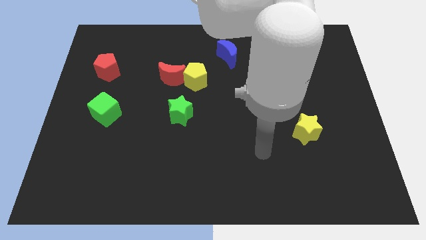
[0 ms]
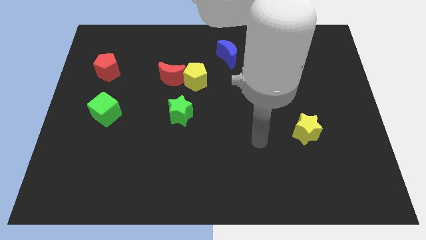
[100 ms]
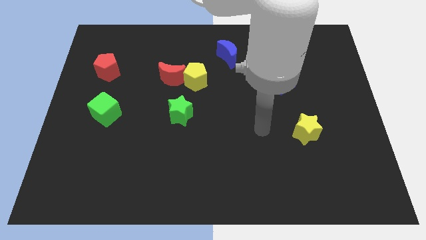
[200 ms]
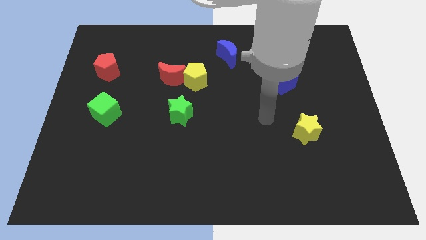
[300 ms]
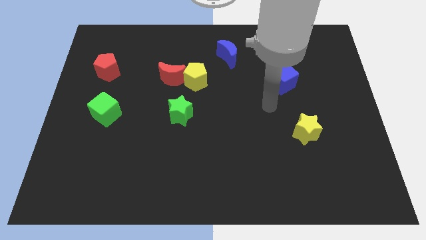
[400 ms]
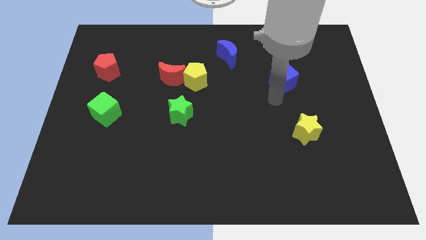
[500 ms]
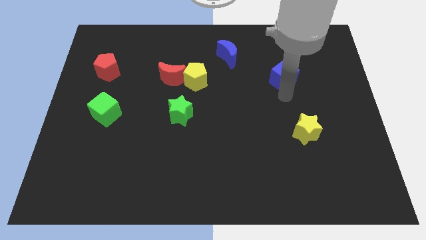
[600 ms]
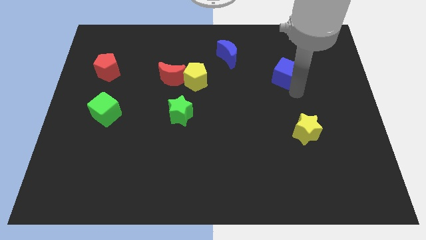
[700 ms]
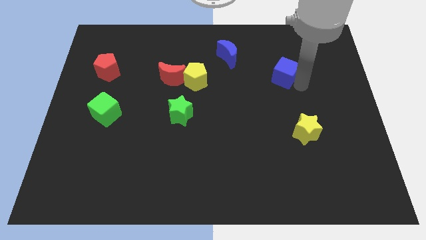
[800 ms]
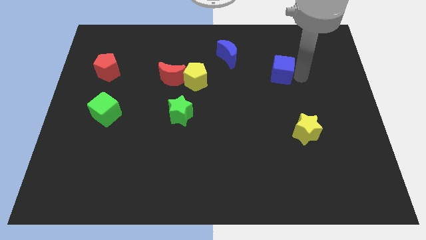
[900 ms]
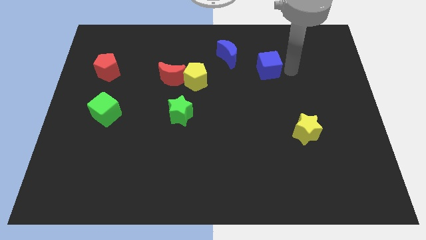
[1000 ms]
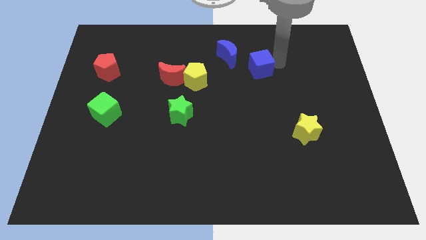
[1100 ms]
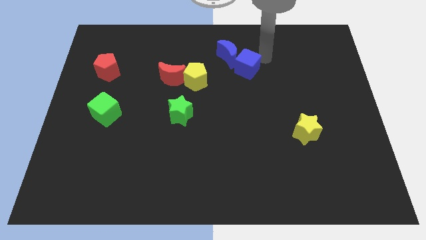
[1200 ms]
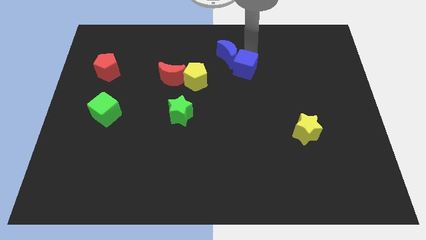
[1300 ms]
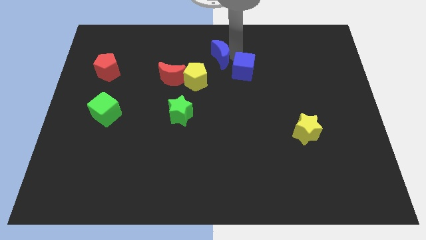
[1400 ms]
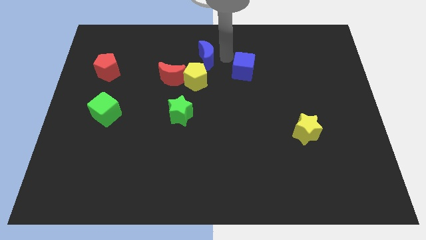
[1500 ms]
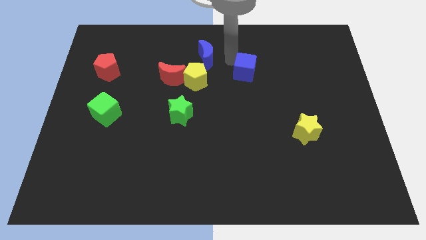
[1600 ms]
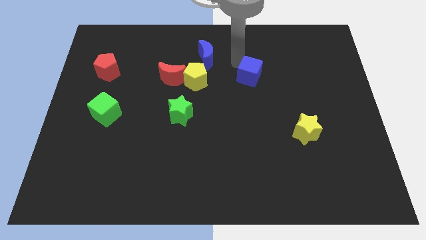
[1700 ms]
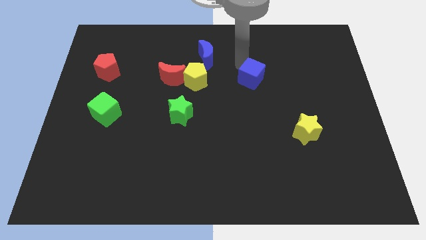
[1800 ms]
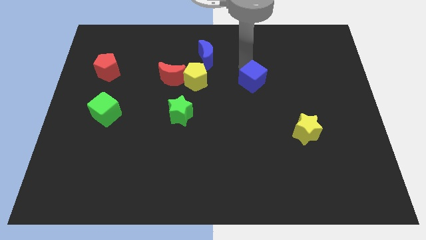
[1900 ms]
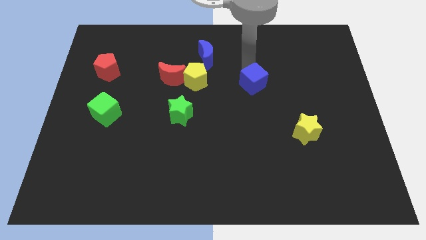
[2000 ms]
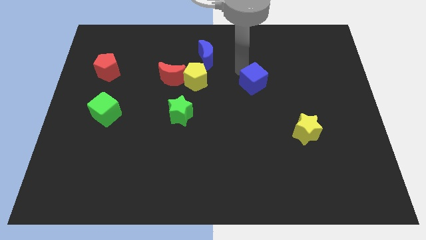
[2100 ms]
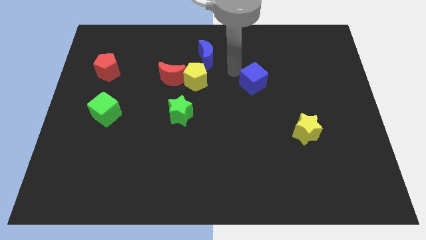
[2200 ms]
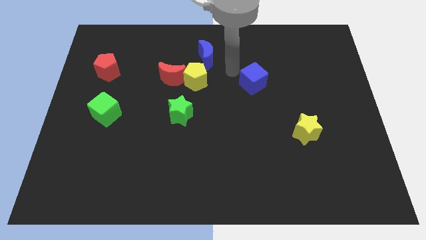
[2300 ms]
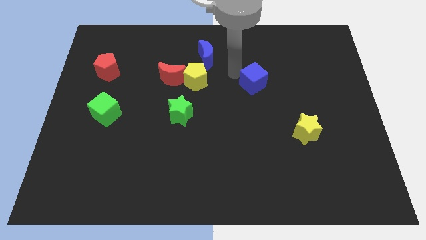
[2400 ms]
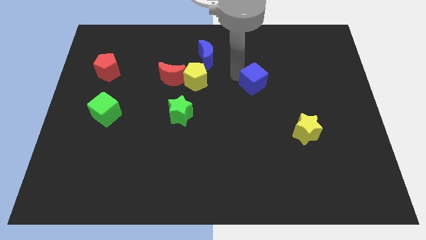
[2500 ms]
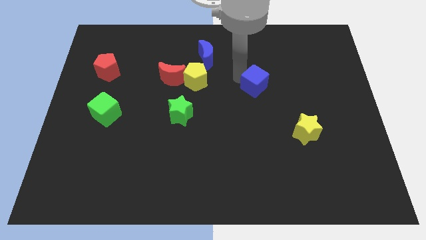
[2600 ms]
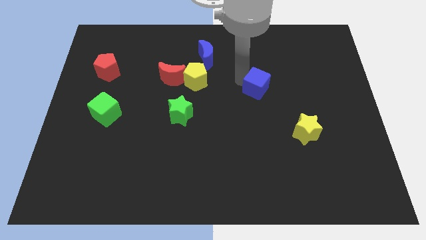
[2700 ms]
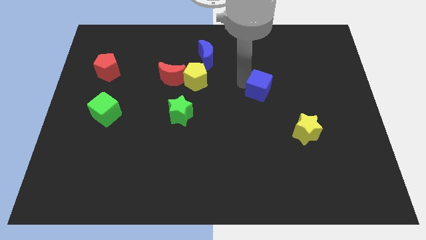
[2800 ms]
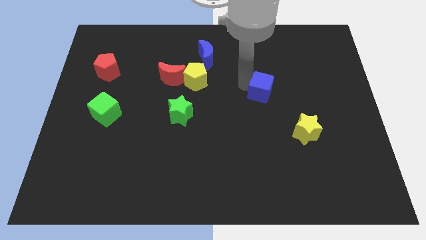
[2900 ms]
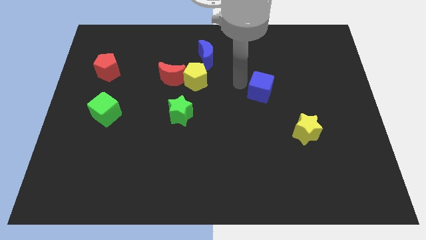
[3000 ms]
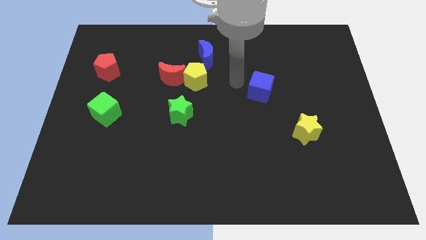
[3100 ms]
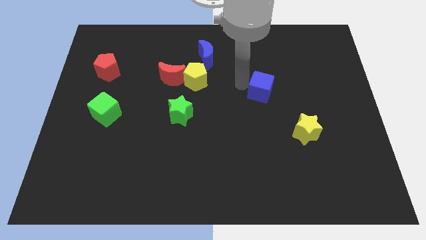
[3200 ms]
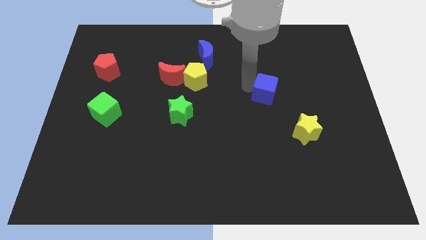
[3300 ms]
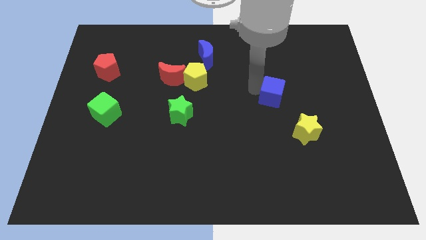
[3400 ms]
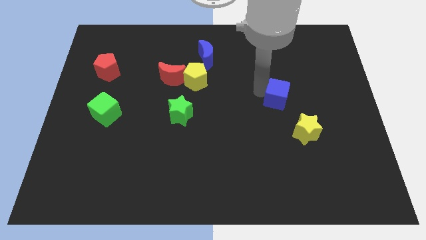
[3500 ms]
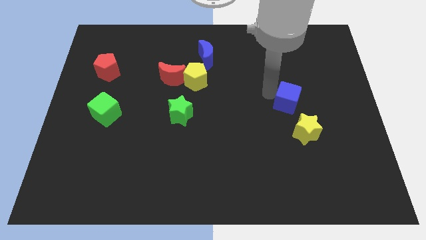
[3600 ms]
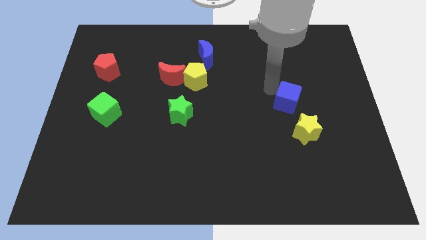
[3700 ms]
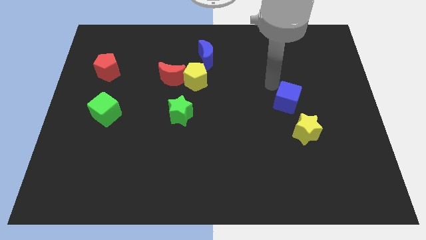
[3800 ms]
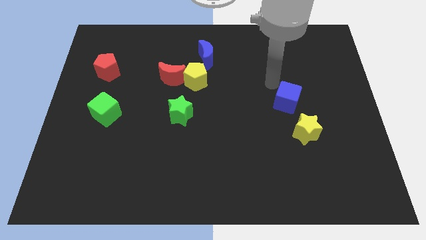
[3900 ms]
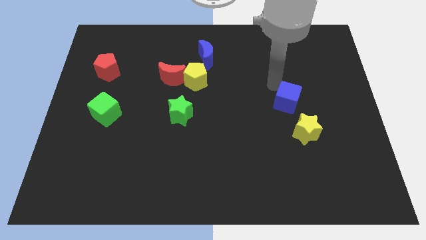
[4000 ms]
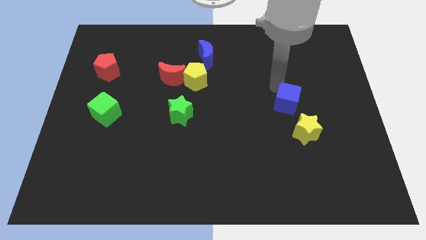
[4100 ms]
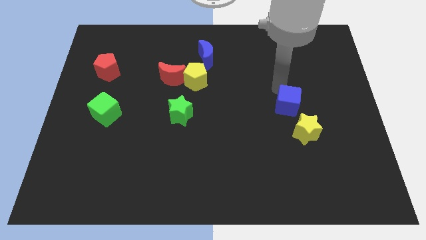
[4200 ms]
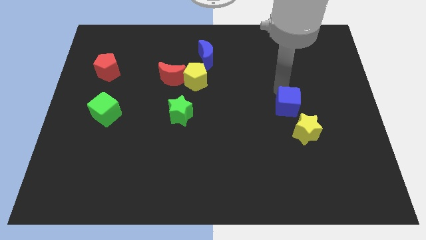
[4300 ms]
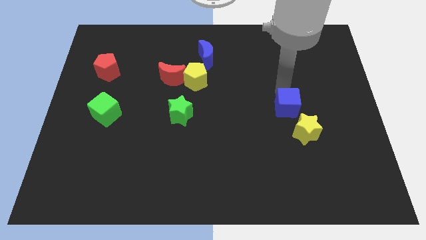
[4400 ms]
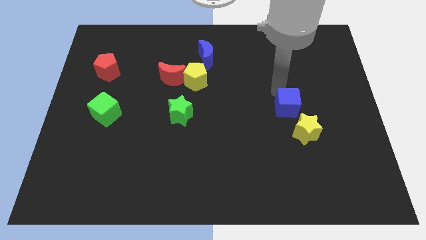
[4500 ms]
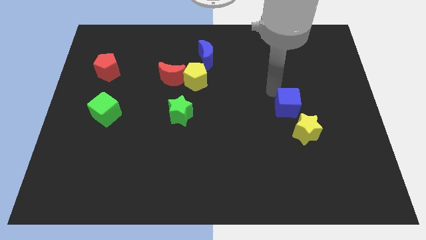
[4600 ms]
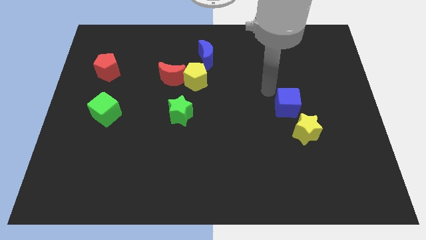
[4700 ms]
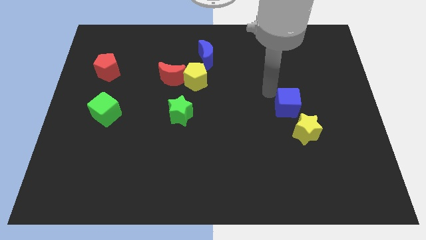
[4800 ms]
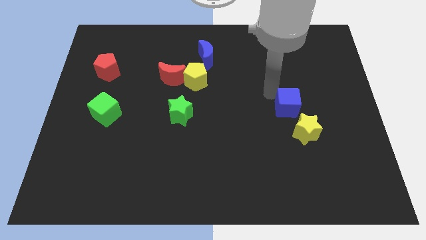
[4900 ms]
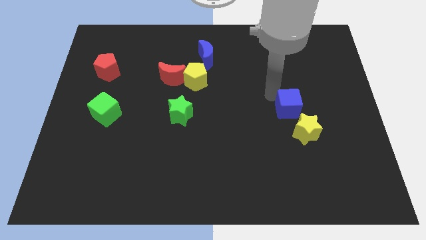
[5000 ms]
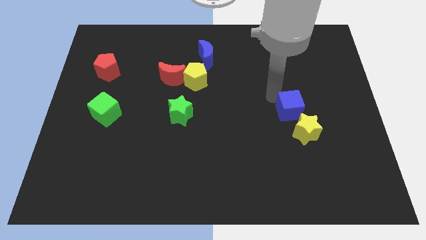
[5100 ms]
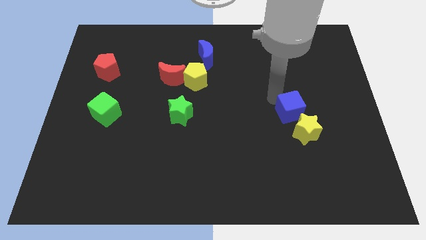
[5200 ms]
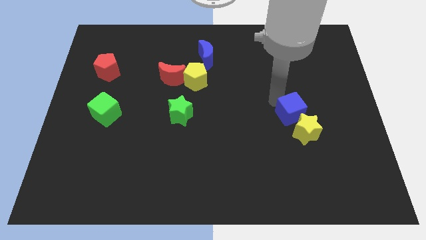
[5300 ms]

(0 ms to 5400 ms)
put the blue cube close to the yellow star

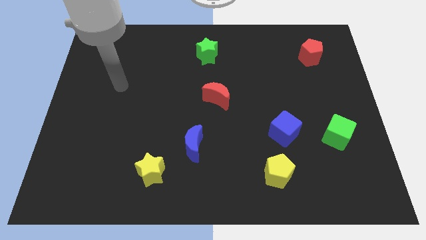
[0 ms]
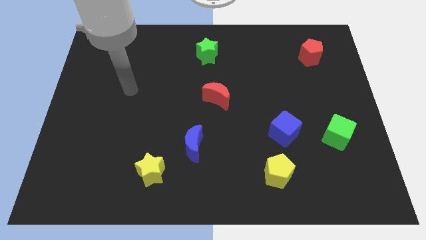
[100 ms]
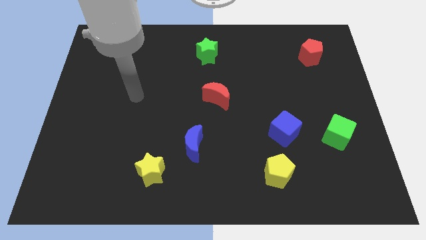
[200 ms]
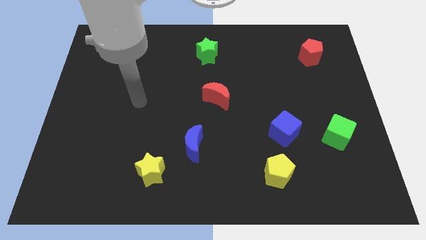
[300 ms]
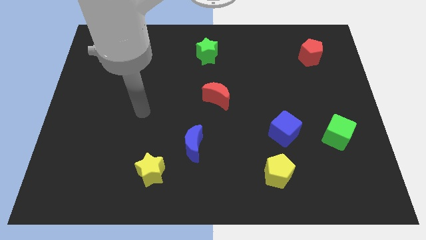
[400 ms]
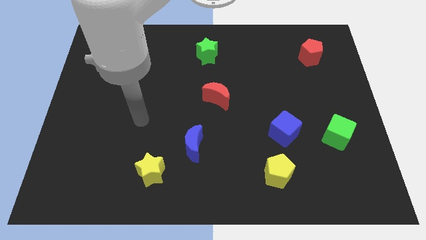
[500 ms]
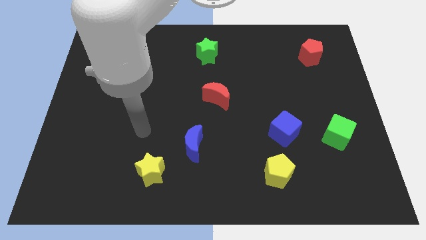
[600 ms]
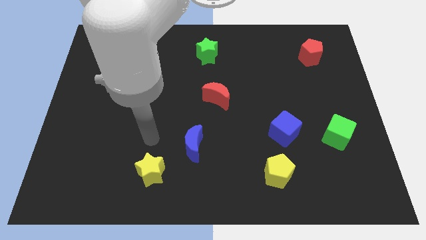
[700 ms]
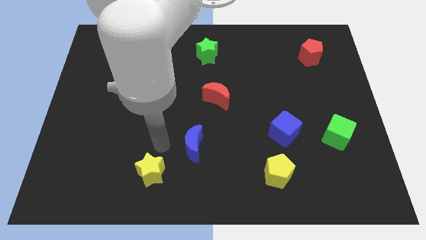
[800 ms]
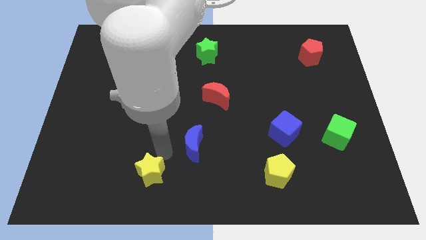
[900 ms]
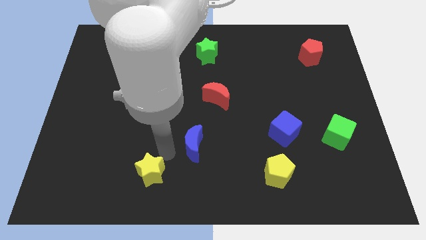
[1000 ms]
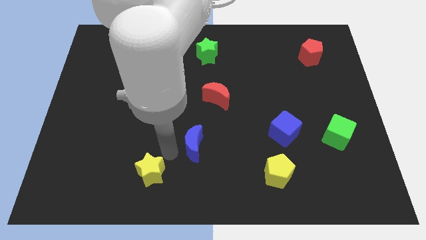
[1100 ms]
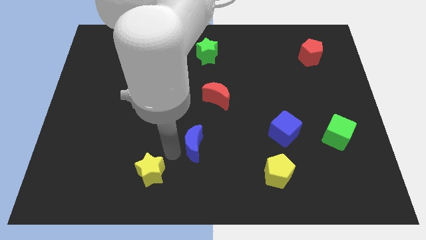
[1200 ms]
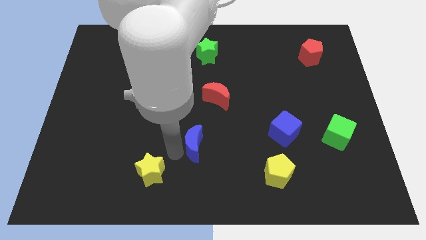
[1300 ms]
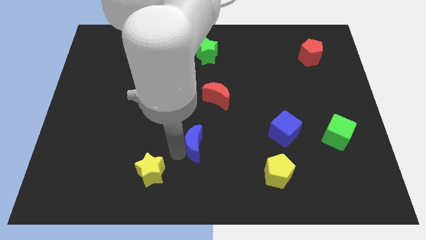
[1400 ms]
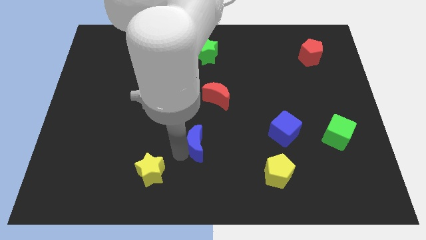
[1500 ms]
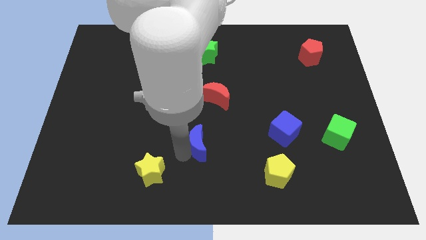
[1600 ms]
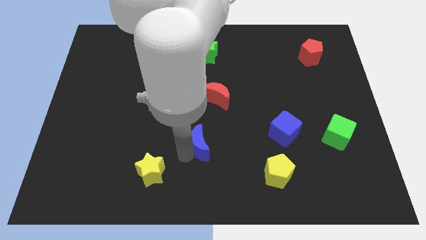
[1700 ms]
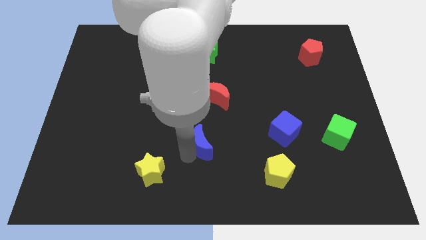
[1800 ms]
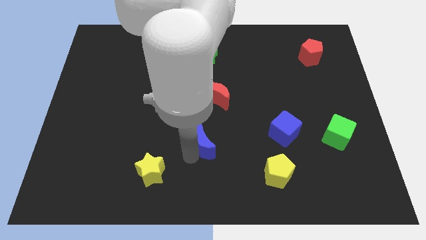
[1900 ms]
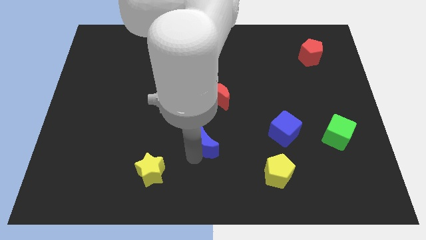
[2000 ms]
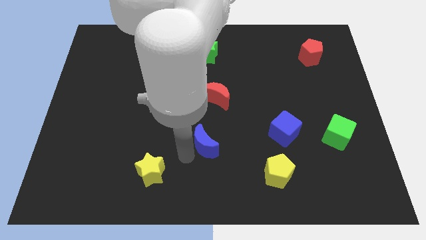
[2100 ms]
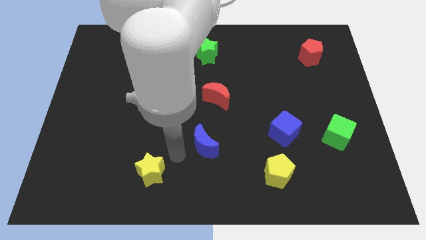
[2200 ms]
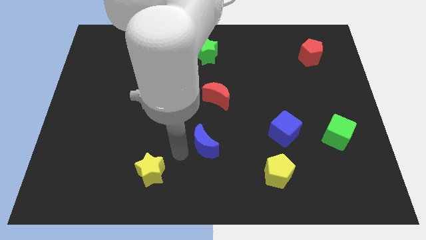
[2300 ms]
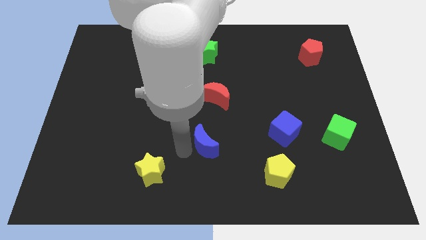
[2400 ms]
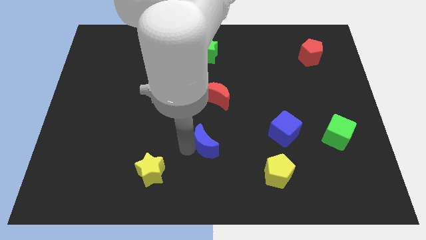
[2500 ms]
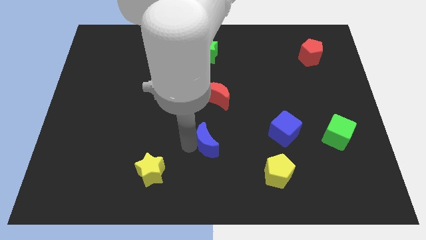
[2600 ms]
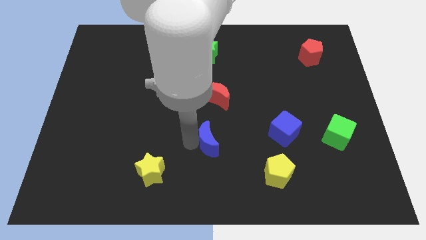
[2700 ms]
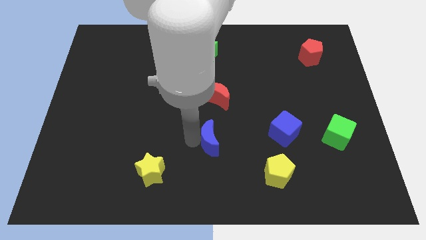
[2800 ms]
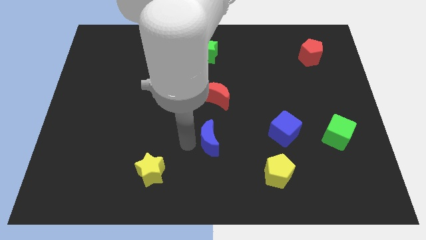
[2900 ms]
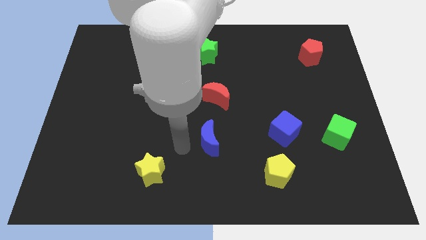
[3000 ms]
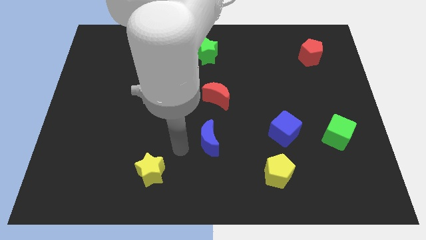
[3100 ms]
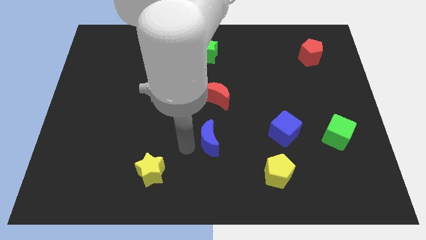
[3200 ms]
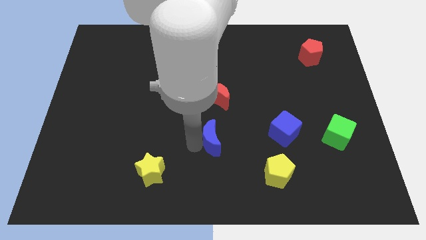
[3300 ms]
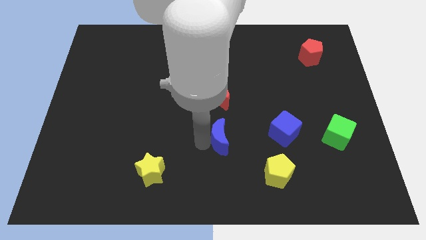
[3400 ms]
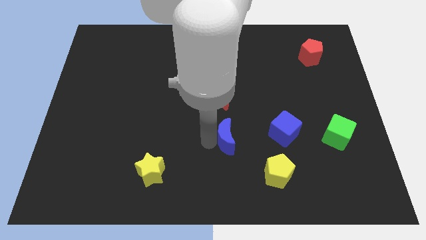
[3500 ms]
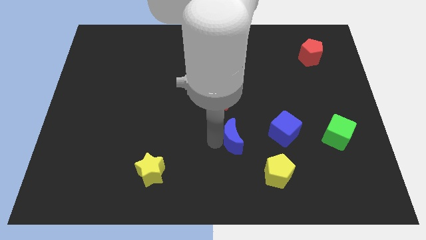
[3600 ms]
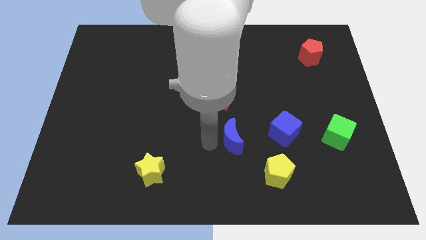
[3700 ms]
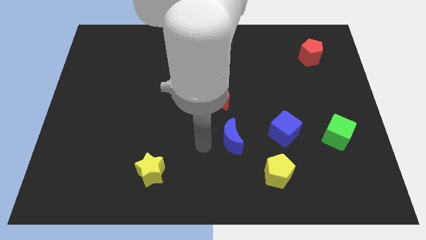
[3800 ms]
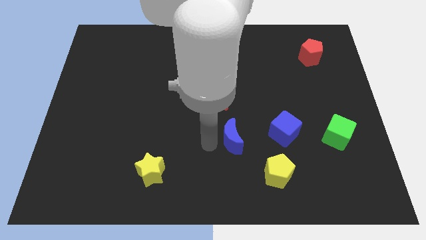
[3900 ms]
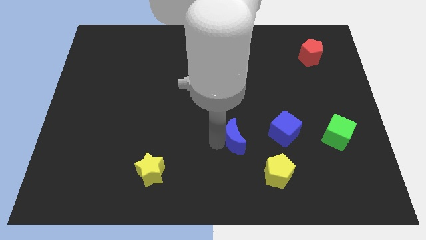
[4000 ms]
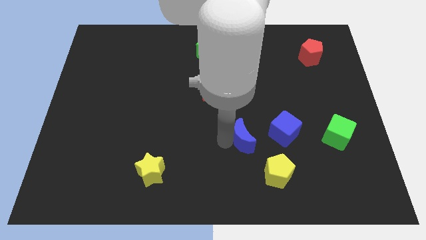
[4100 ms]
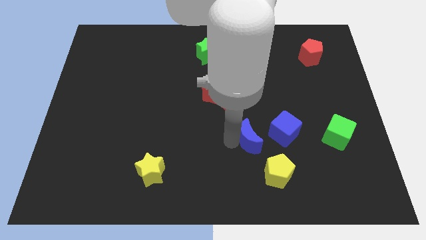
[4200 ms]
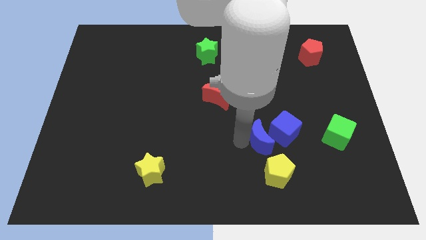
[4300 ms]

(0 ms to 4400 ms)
push the blue moon close to the blue cube
